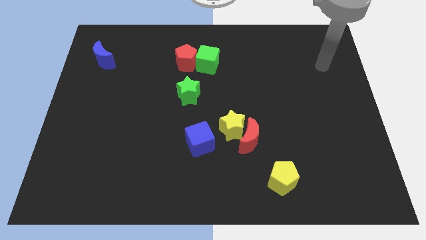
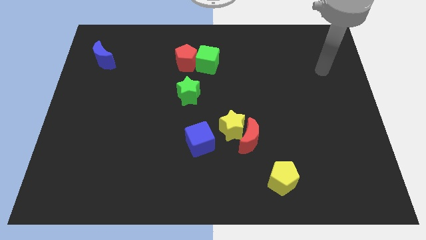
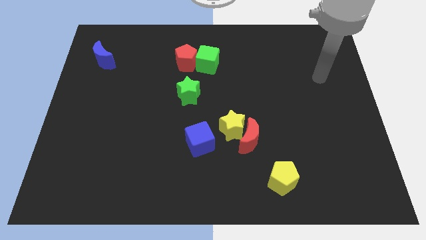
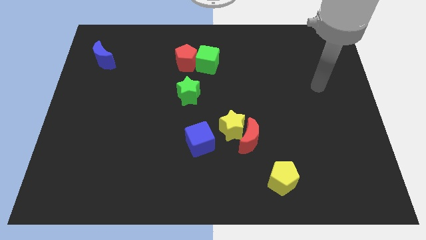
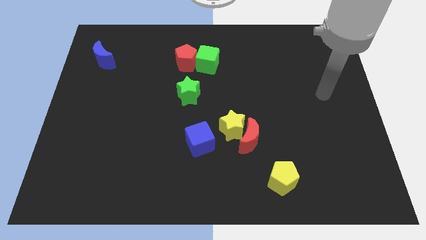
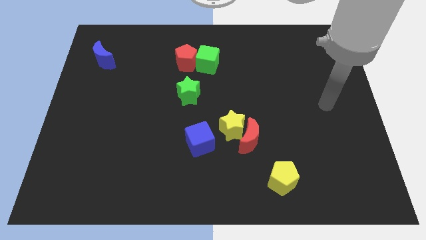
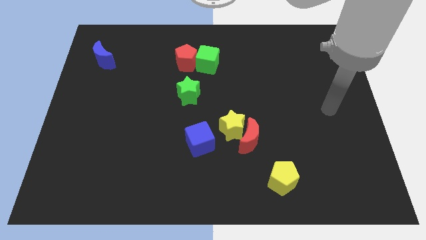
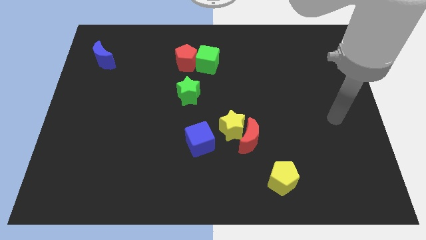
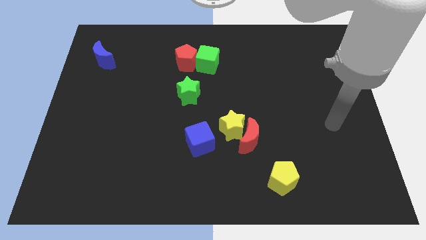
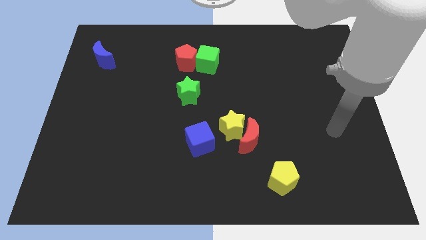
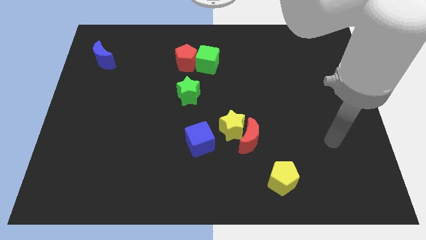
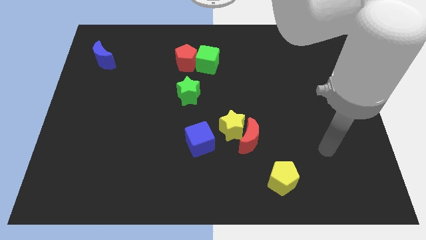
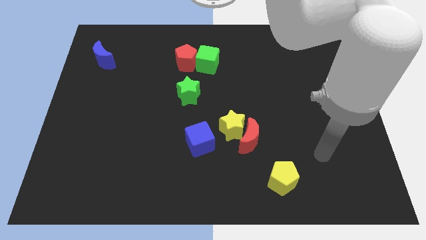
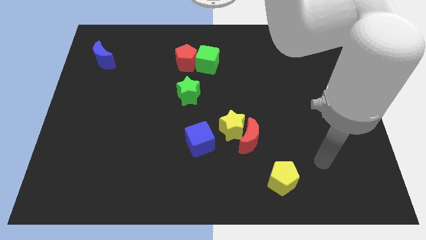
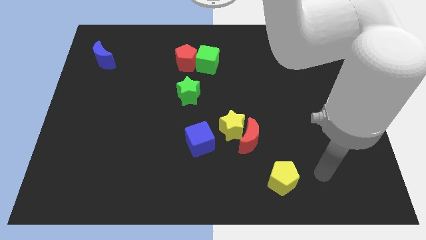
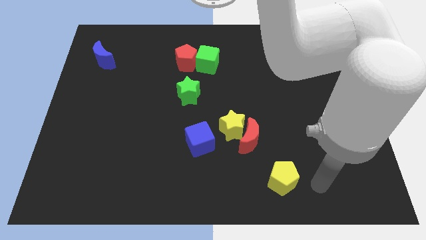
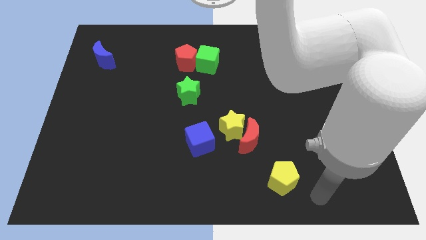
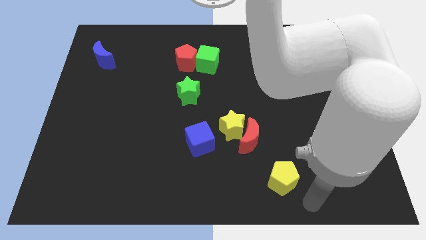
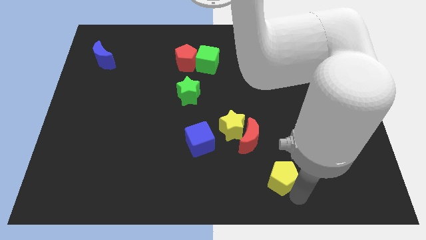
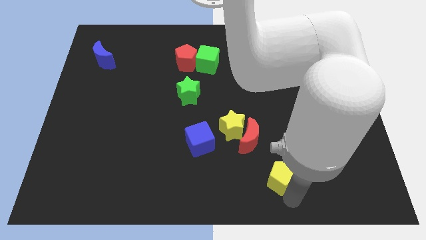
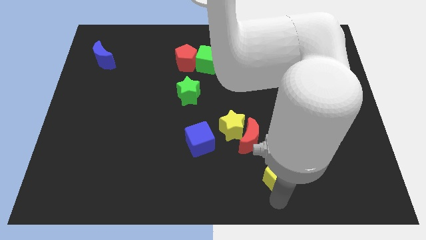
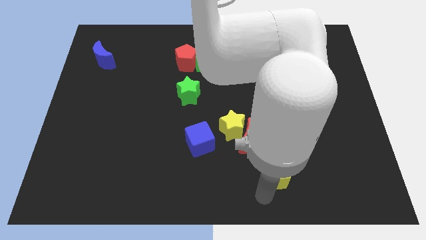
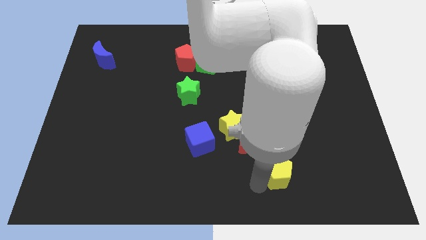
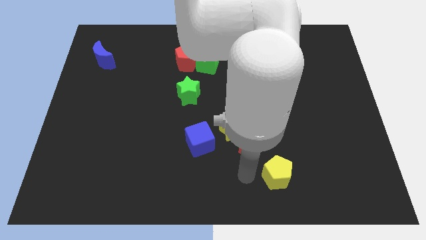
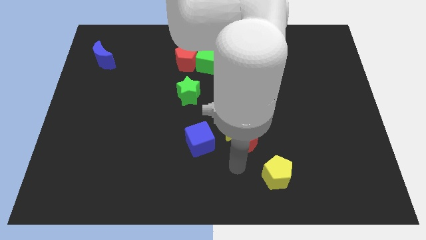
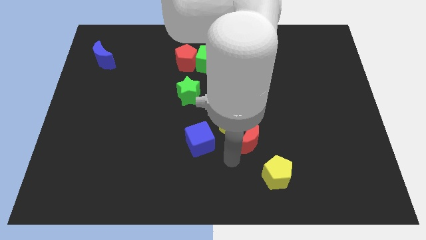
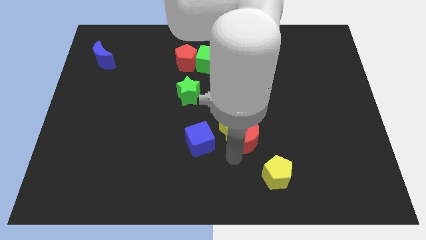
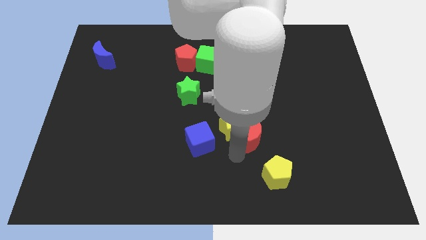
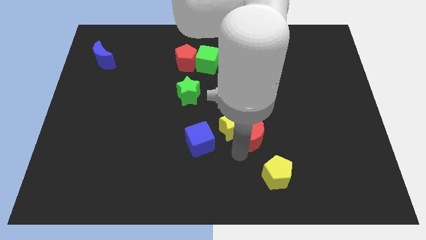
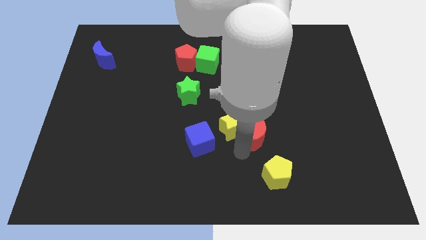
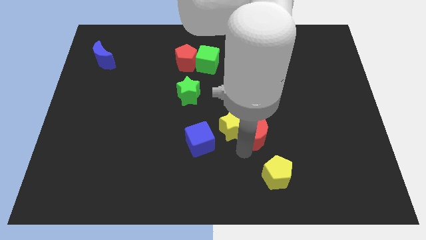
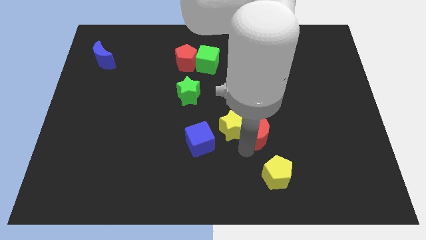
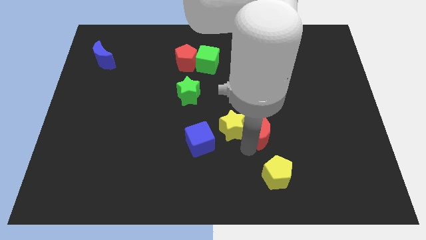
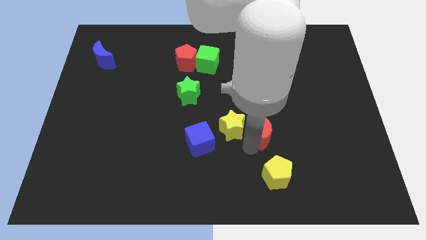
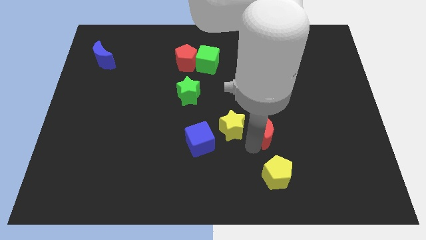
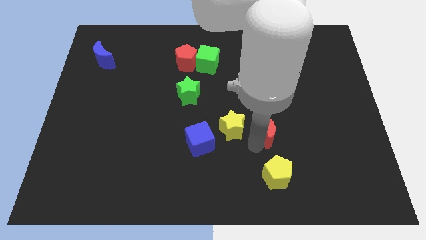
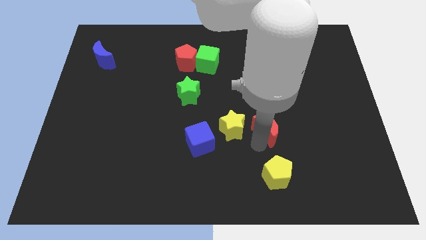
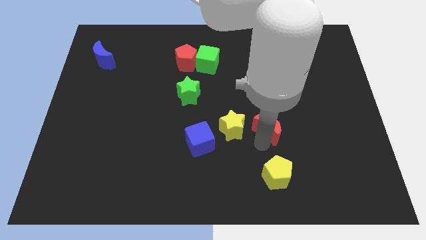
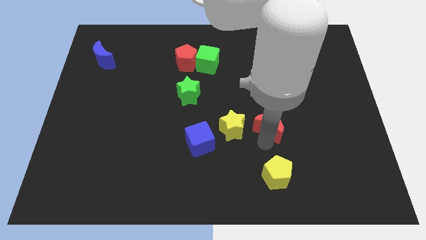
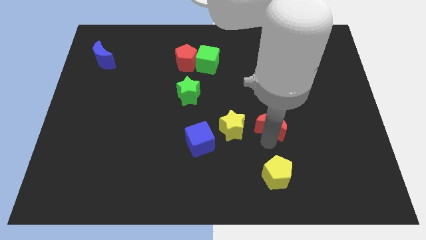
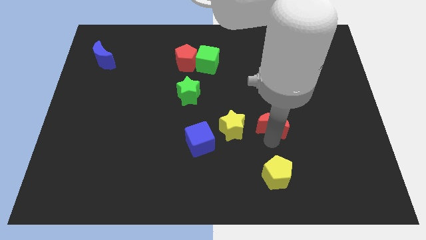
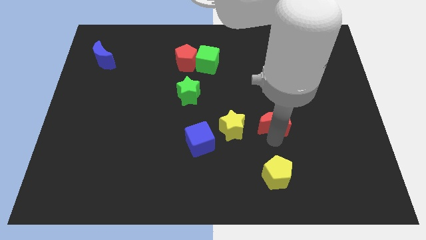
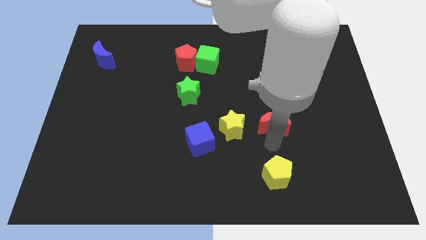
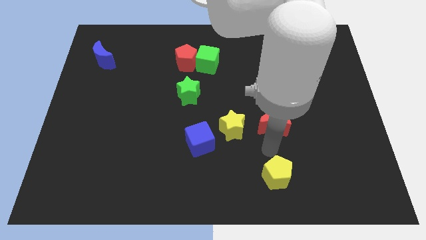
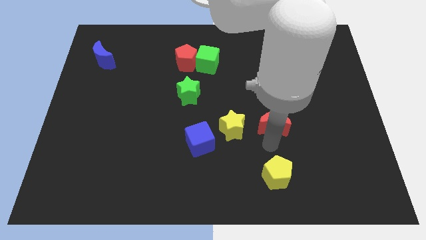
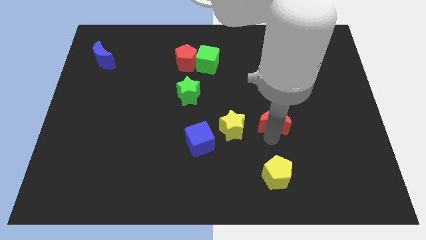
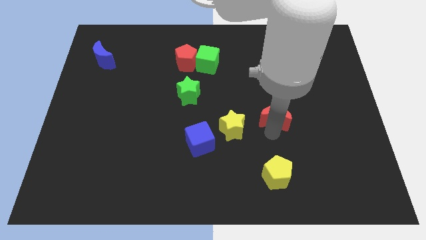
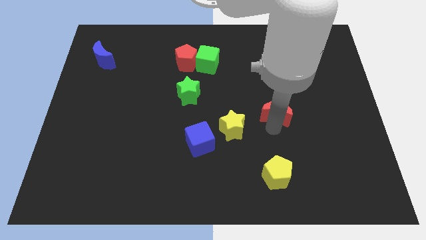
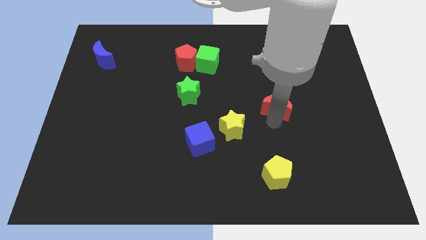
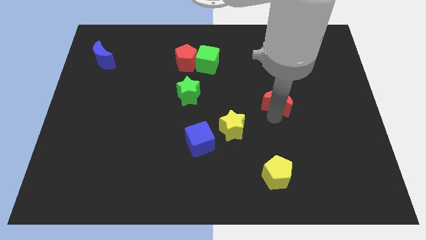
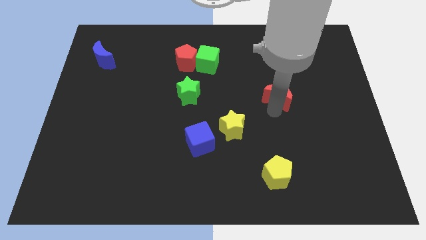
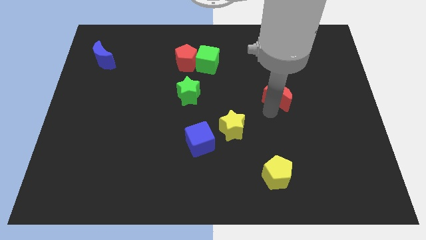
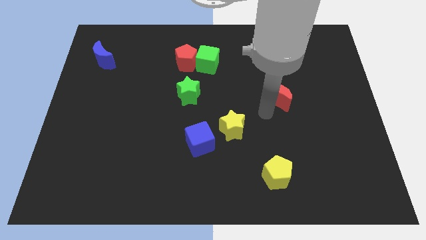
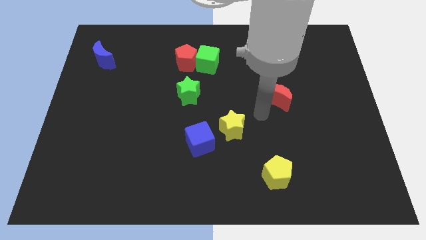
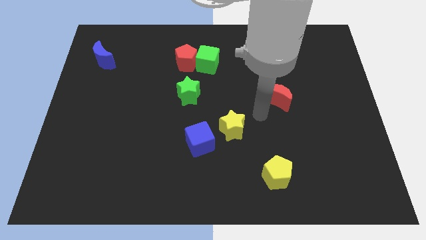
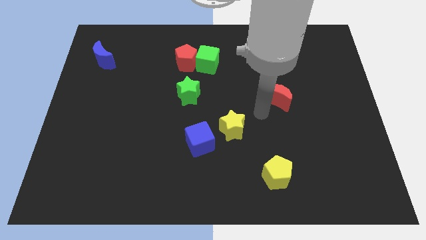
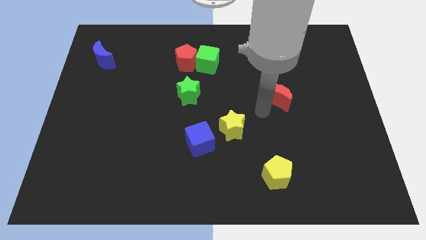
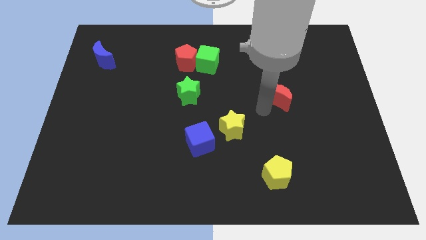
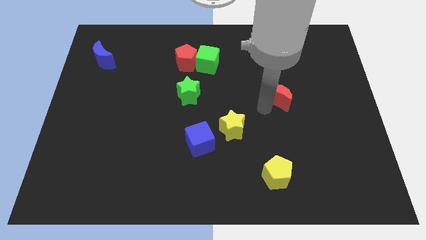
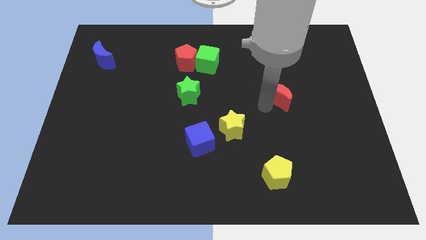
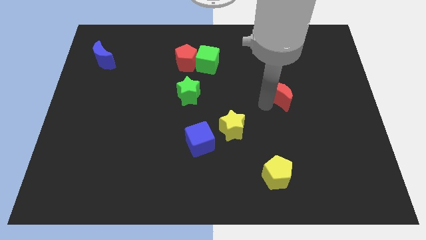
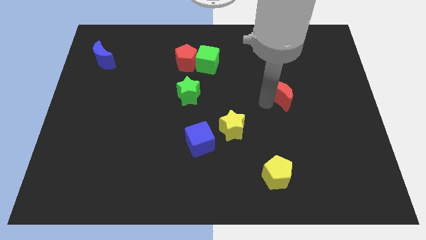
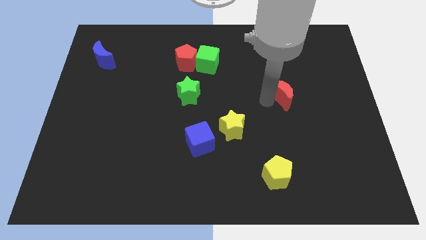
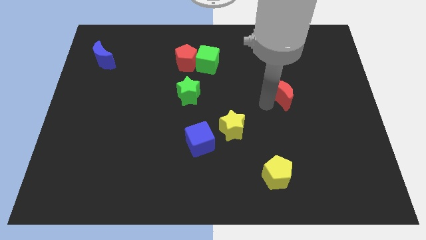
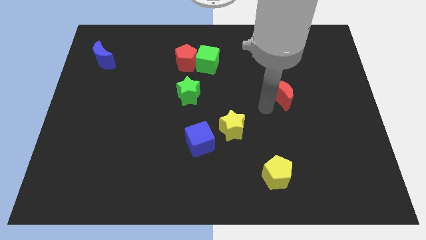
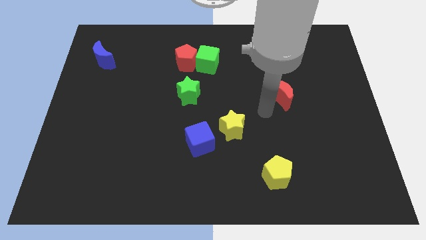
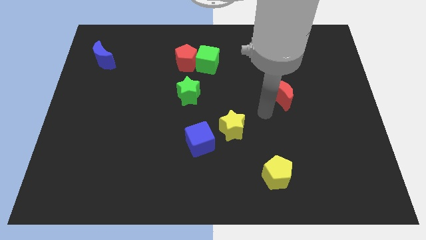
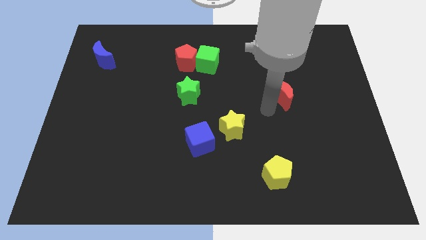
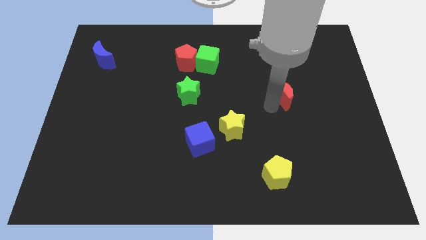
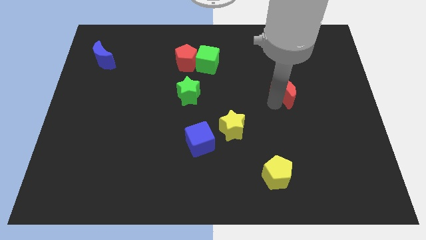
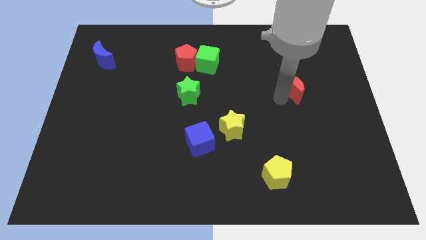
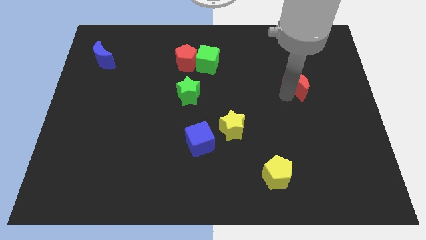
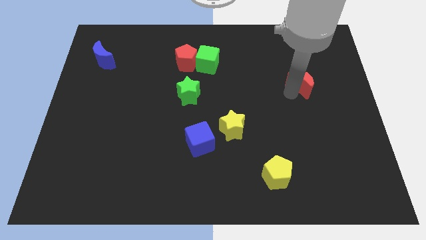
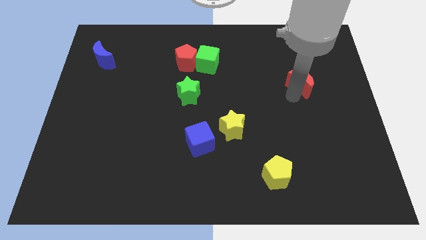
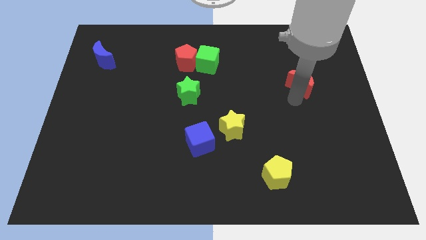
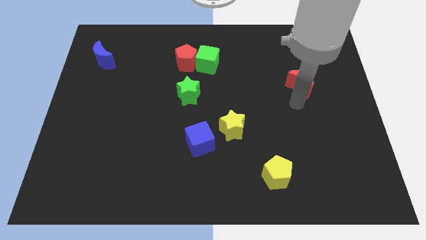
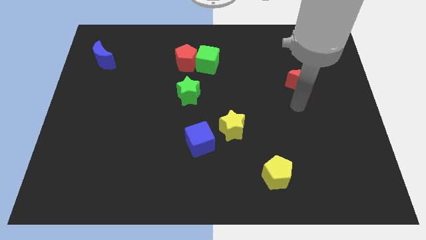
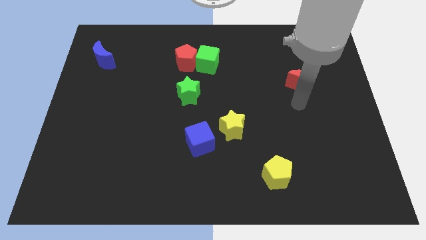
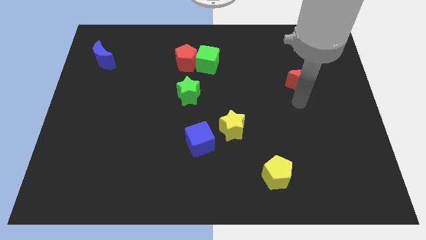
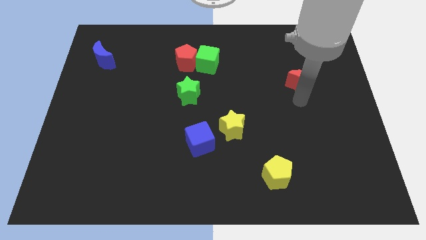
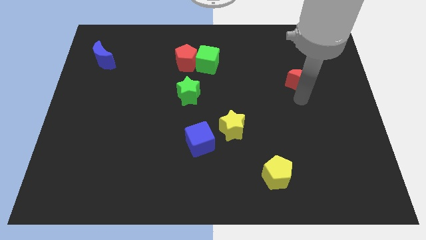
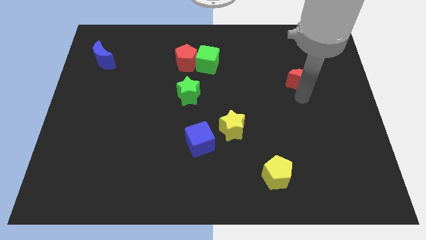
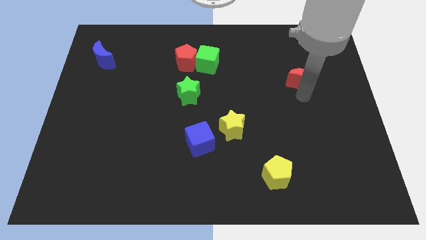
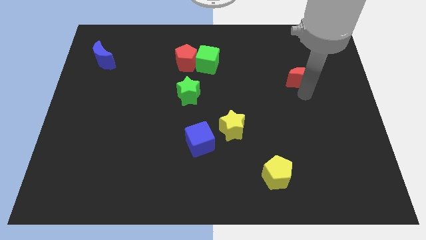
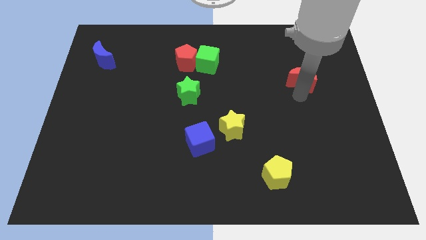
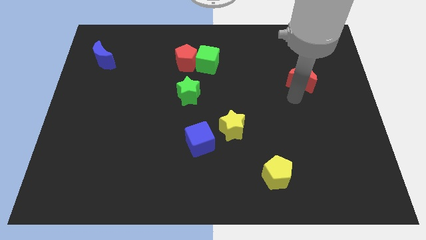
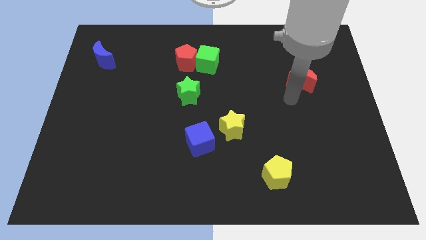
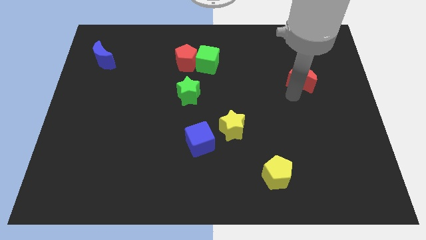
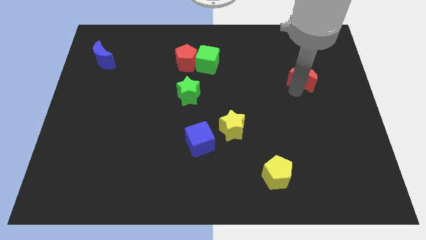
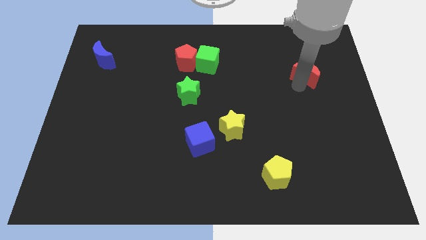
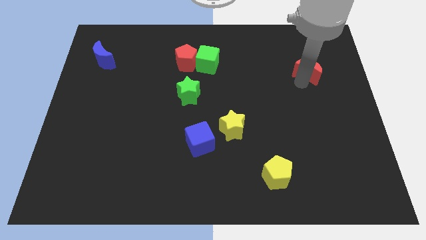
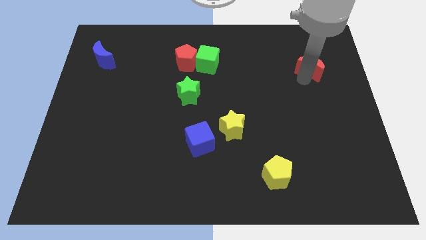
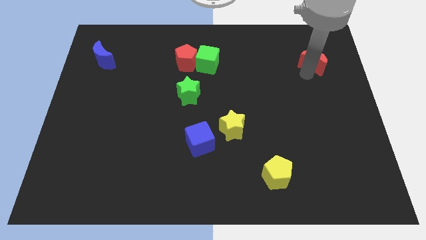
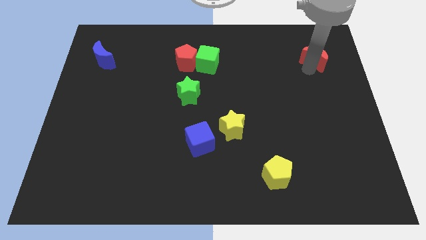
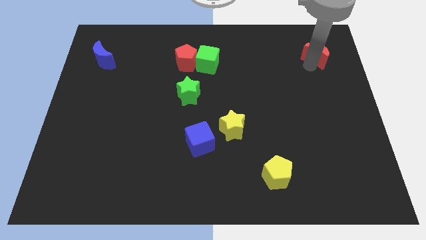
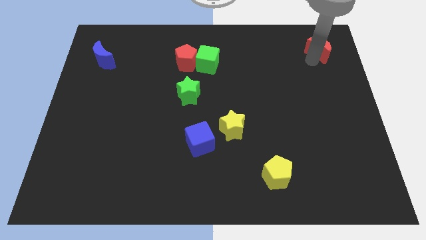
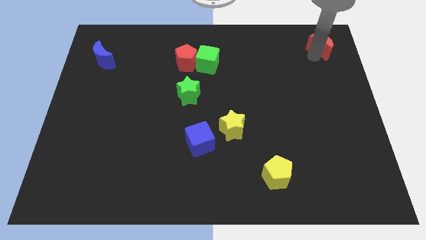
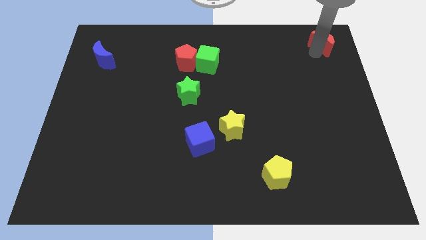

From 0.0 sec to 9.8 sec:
move the red moon to the top right of the board
